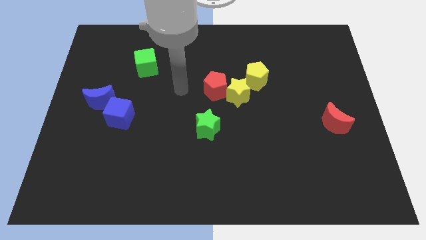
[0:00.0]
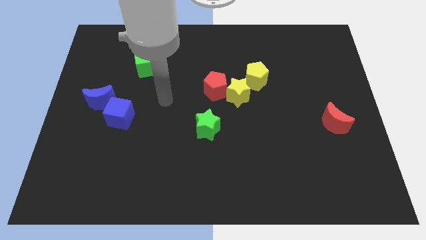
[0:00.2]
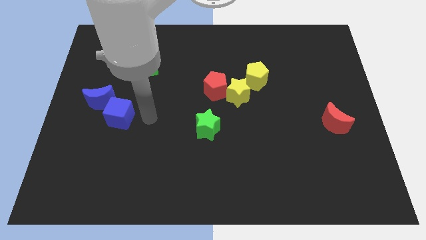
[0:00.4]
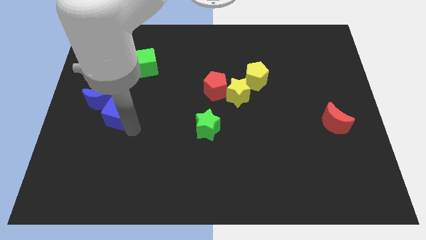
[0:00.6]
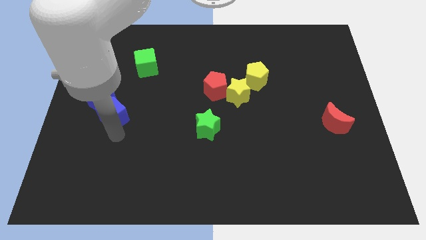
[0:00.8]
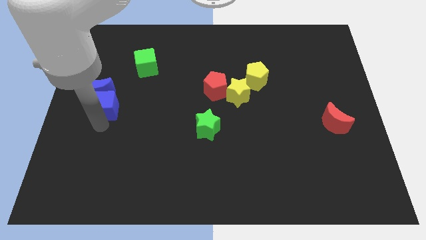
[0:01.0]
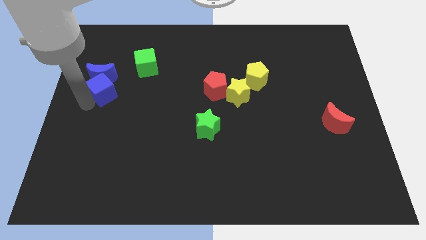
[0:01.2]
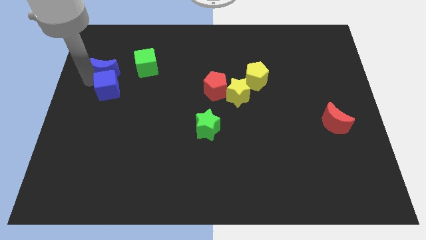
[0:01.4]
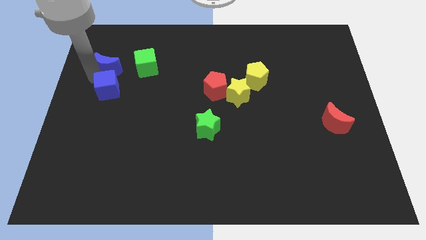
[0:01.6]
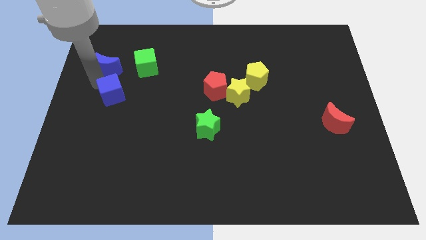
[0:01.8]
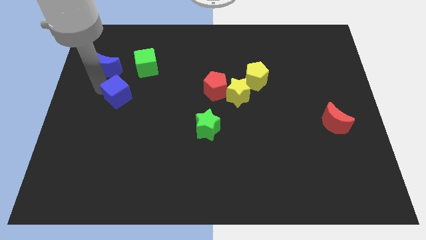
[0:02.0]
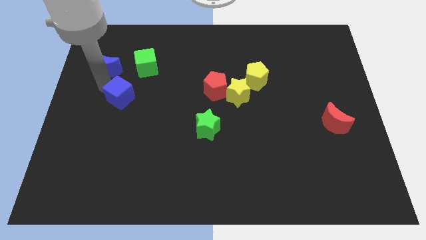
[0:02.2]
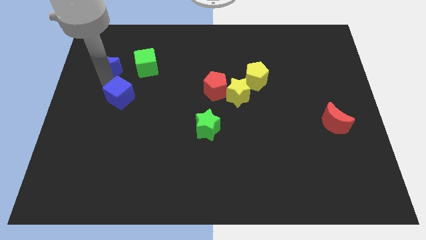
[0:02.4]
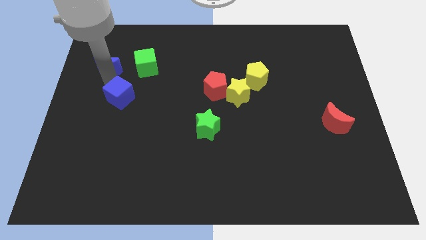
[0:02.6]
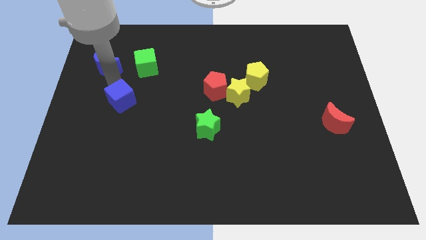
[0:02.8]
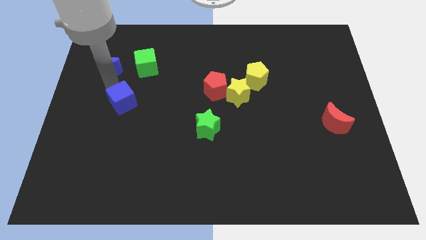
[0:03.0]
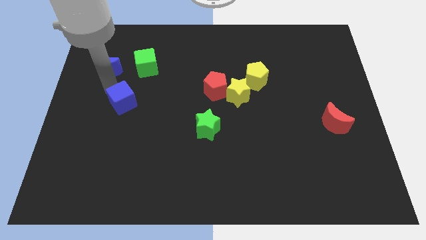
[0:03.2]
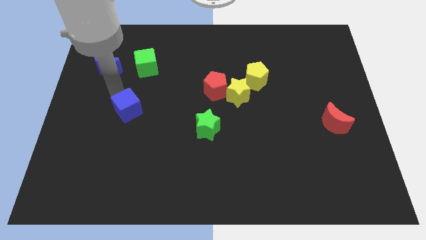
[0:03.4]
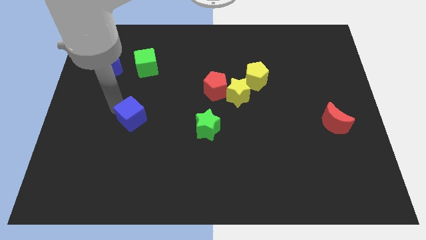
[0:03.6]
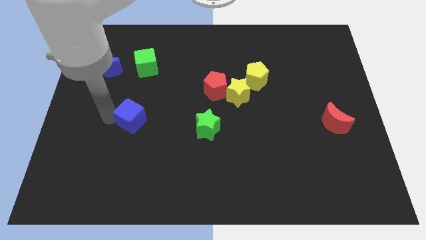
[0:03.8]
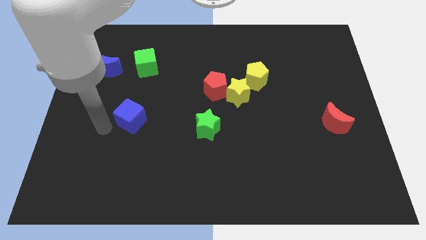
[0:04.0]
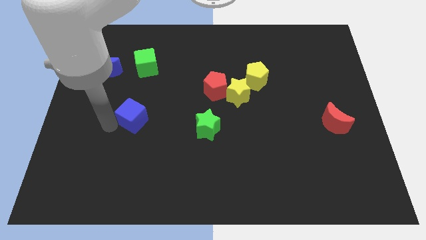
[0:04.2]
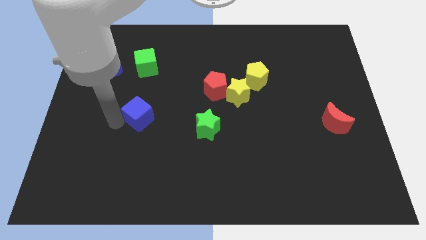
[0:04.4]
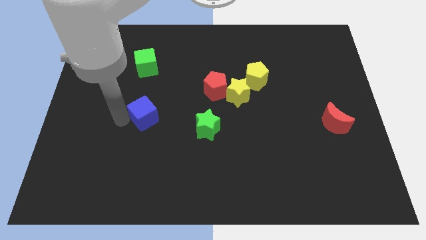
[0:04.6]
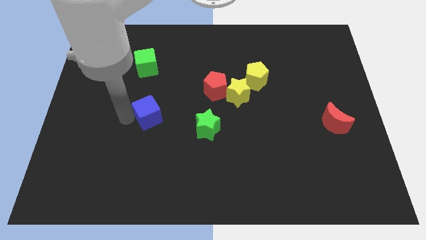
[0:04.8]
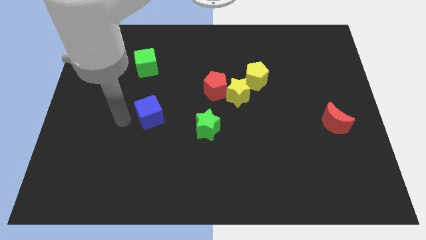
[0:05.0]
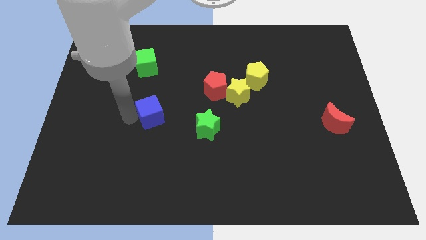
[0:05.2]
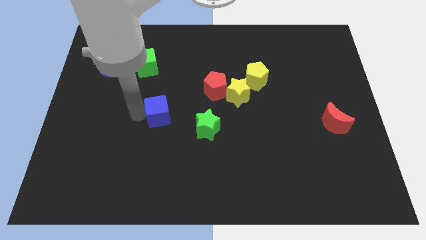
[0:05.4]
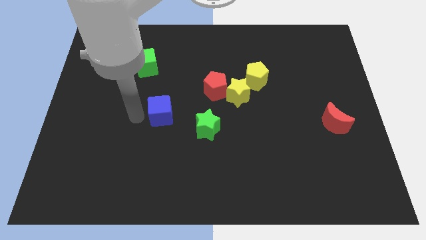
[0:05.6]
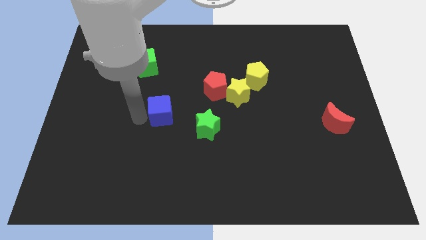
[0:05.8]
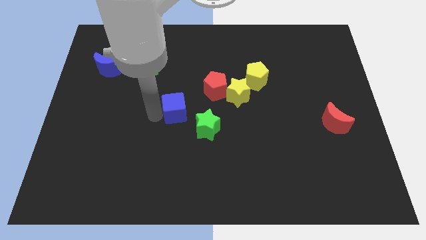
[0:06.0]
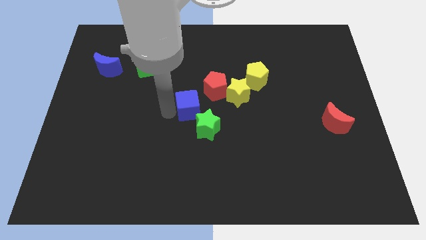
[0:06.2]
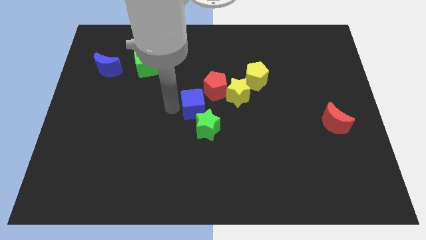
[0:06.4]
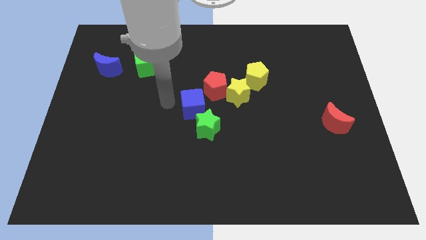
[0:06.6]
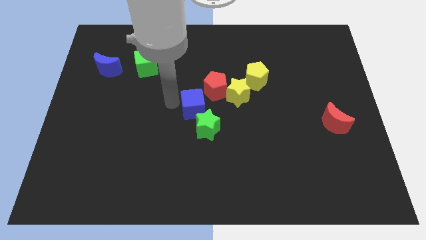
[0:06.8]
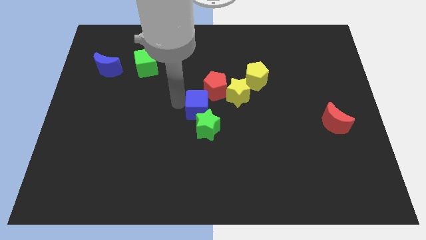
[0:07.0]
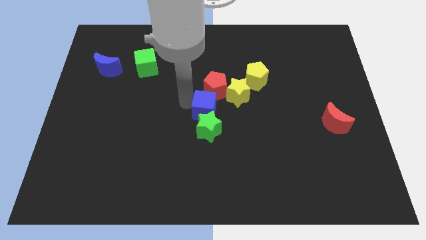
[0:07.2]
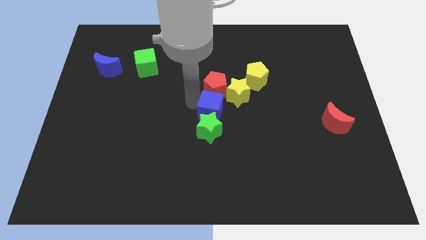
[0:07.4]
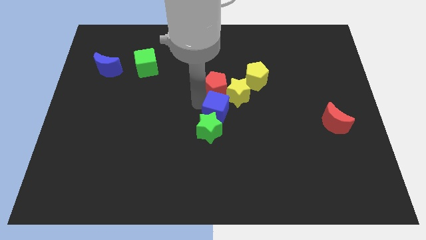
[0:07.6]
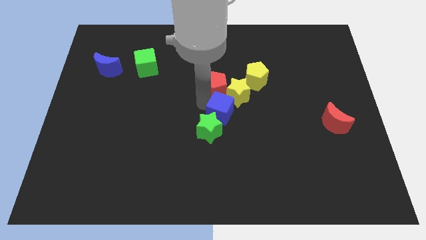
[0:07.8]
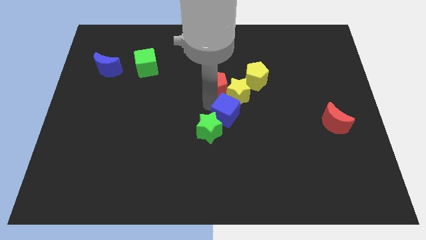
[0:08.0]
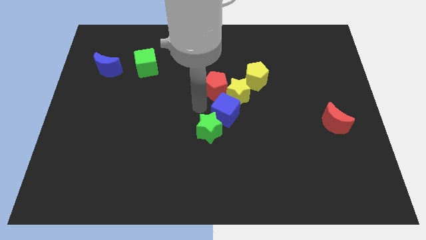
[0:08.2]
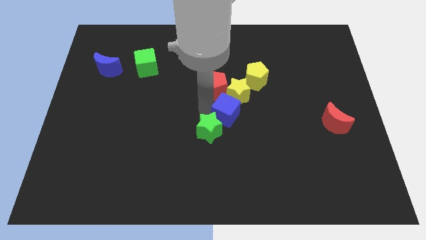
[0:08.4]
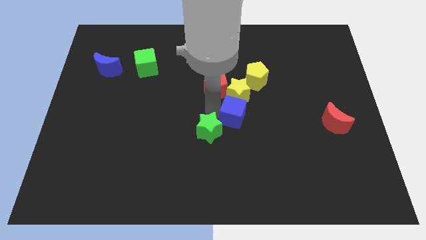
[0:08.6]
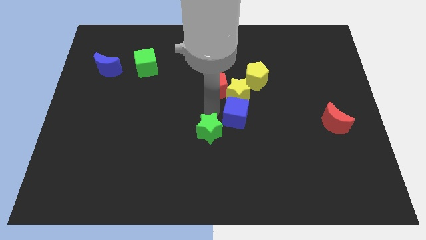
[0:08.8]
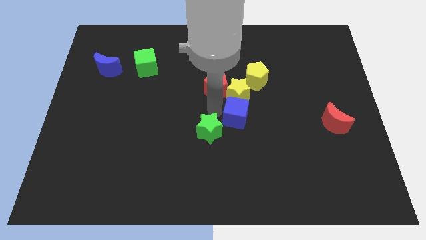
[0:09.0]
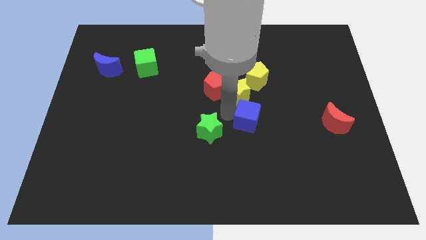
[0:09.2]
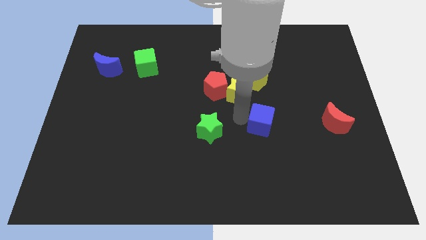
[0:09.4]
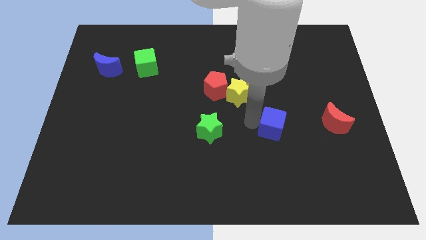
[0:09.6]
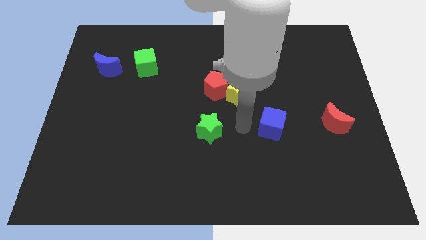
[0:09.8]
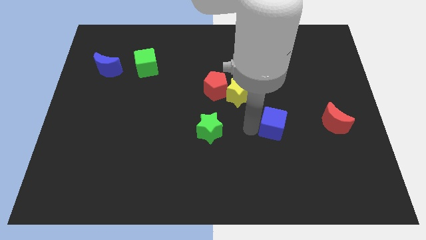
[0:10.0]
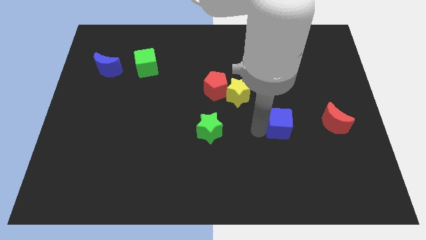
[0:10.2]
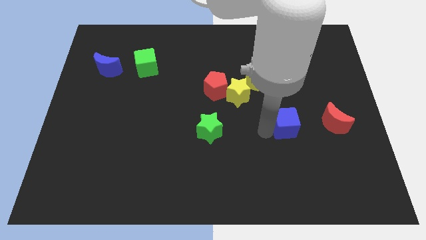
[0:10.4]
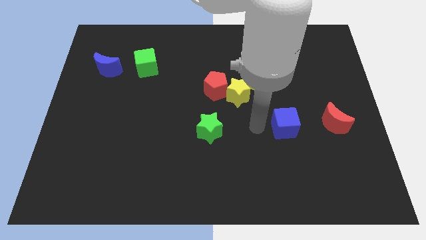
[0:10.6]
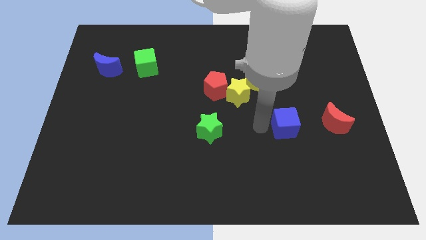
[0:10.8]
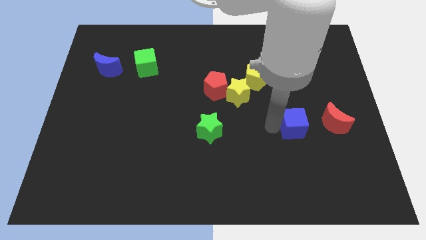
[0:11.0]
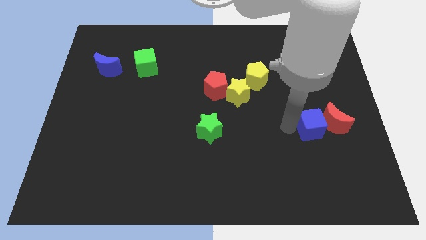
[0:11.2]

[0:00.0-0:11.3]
move the blue cube to the red moon

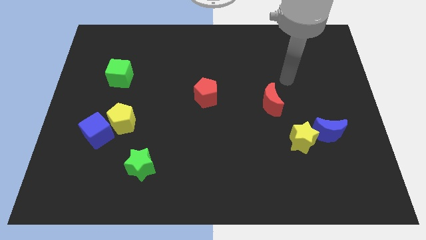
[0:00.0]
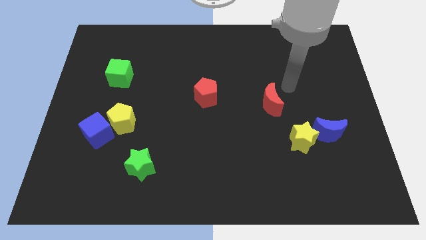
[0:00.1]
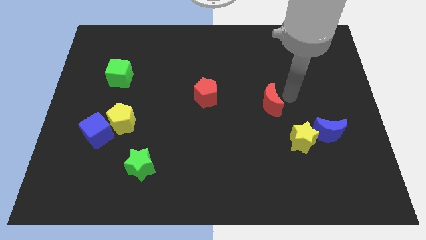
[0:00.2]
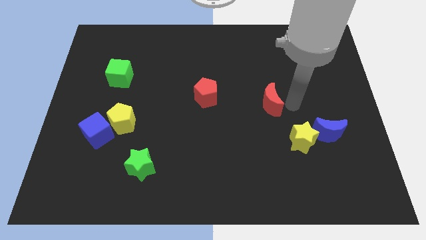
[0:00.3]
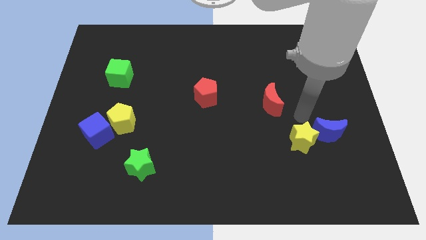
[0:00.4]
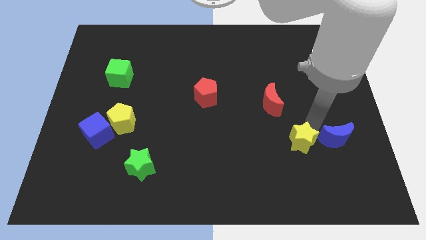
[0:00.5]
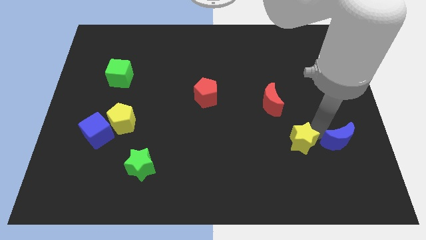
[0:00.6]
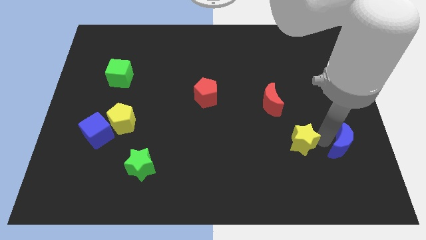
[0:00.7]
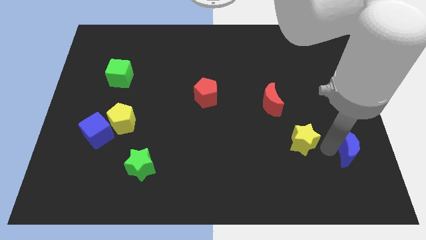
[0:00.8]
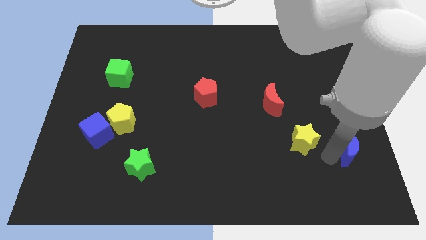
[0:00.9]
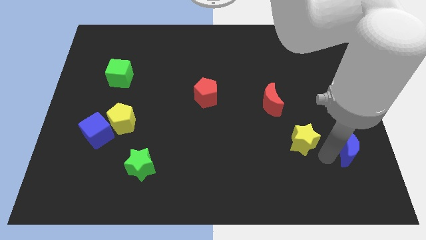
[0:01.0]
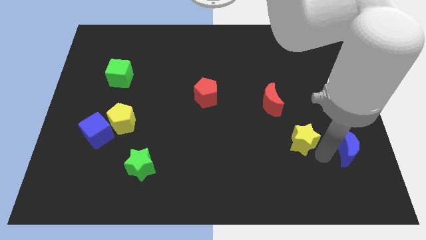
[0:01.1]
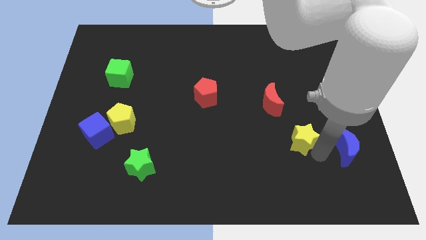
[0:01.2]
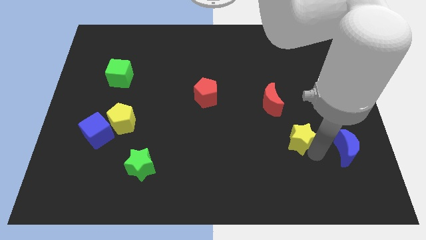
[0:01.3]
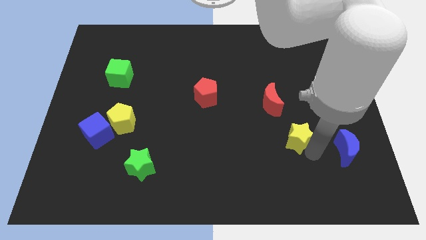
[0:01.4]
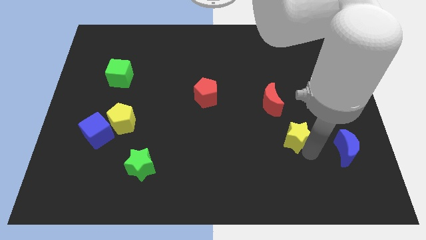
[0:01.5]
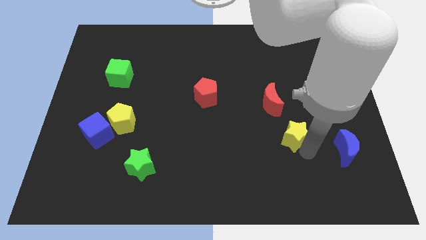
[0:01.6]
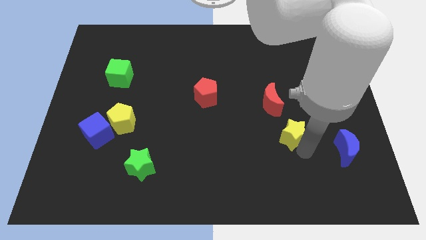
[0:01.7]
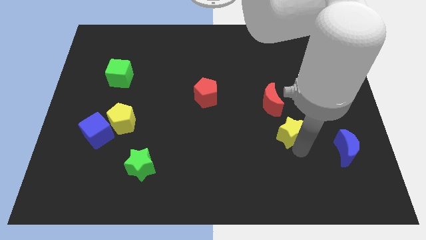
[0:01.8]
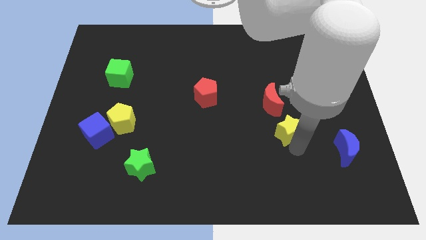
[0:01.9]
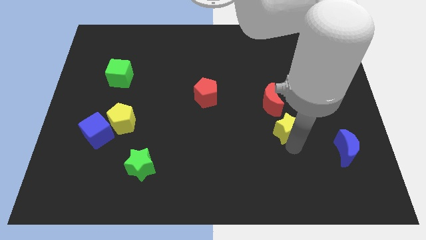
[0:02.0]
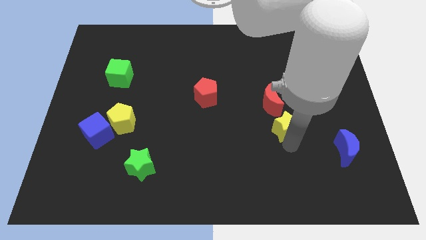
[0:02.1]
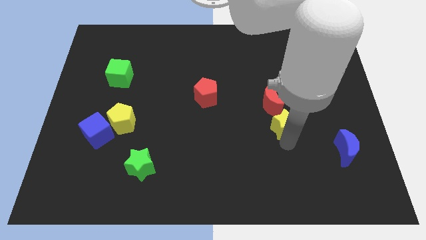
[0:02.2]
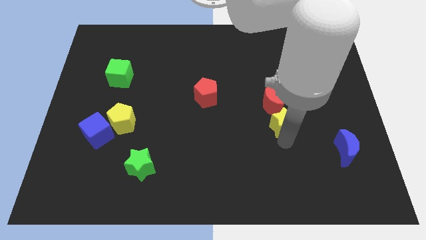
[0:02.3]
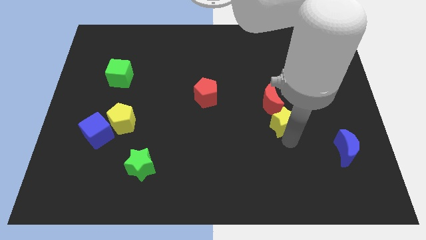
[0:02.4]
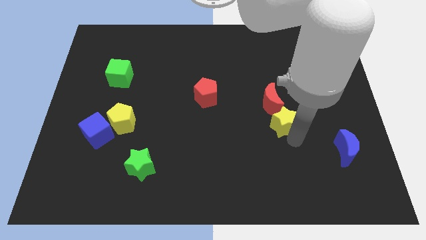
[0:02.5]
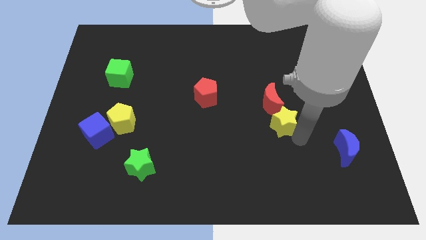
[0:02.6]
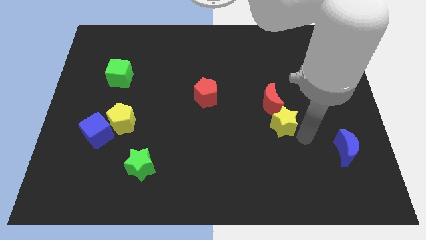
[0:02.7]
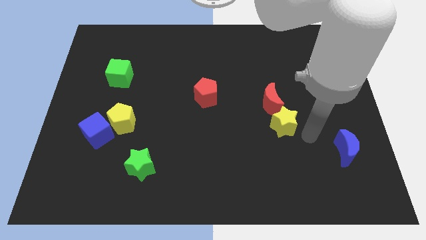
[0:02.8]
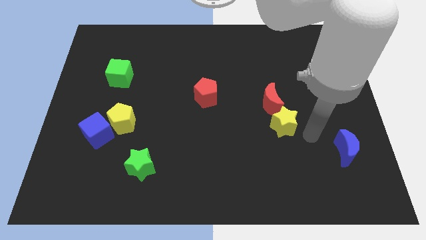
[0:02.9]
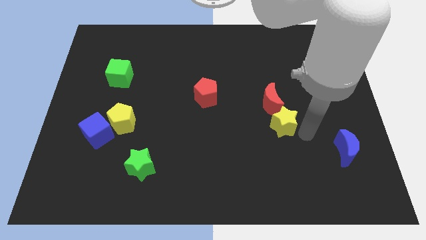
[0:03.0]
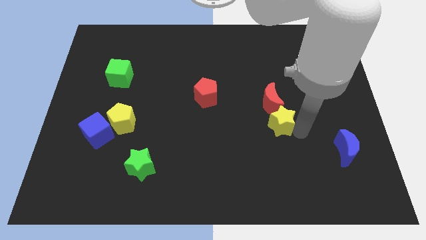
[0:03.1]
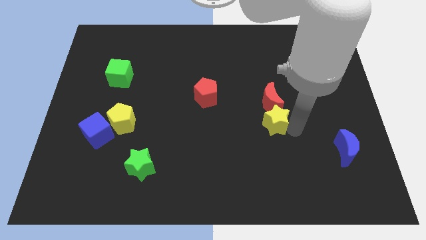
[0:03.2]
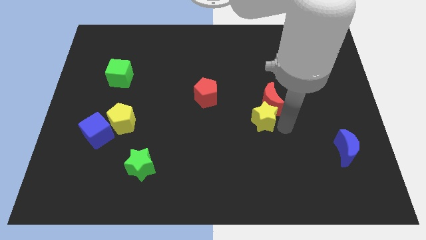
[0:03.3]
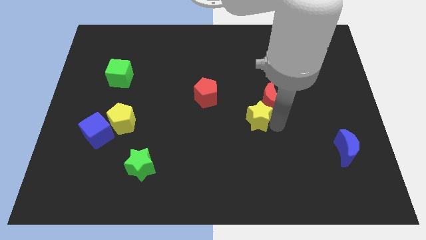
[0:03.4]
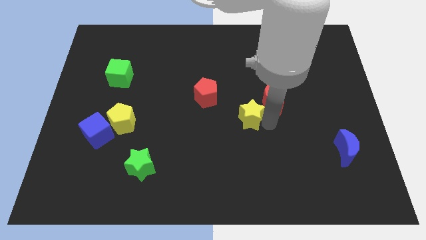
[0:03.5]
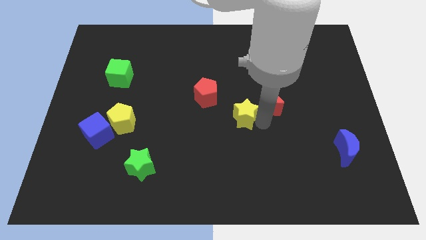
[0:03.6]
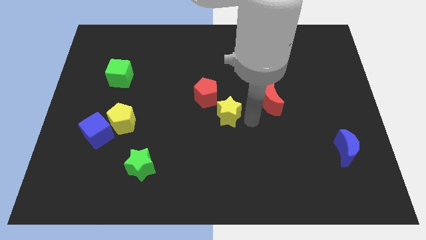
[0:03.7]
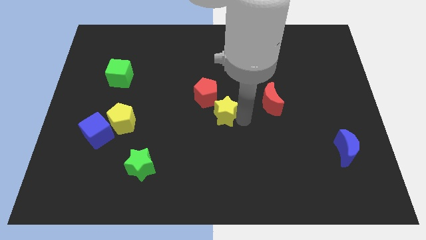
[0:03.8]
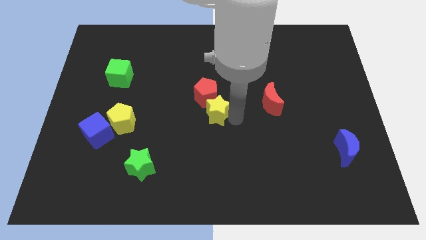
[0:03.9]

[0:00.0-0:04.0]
slide the yellow star to the red pentagon
